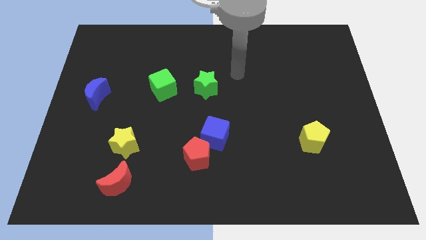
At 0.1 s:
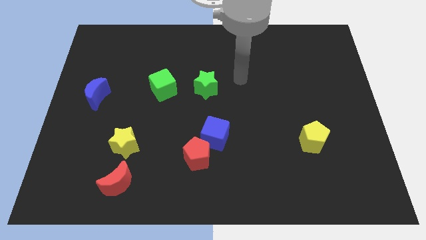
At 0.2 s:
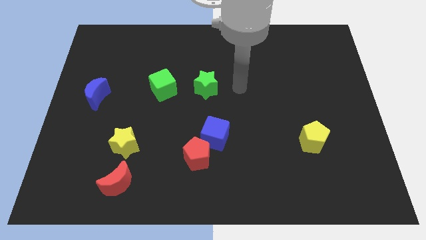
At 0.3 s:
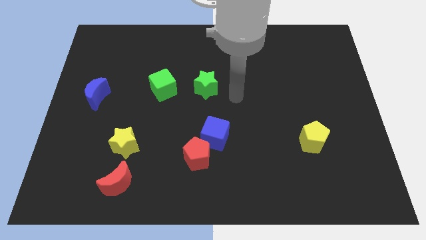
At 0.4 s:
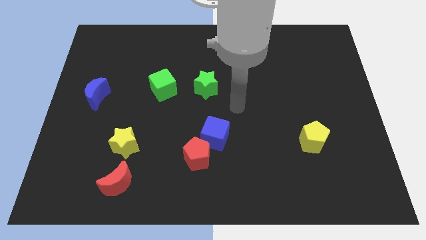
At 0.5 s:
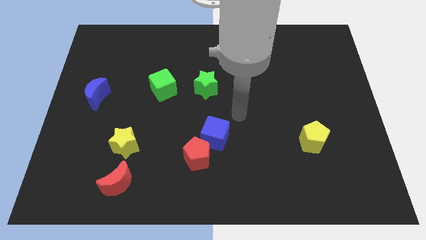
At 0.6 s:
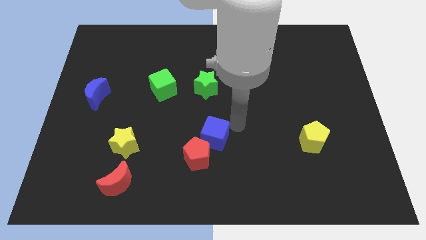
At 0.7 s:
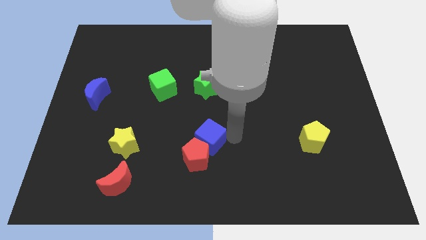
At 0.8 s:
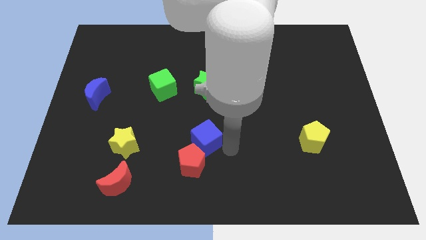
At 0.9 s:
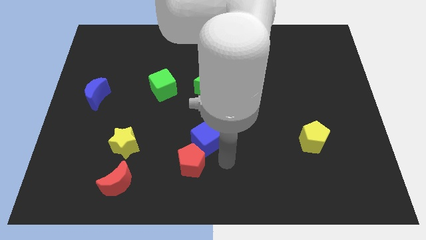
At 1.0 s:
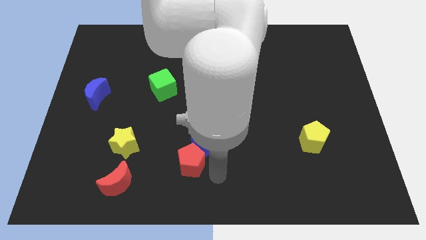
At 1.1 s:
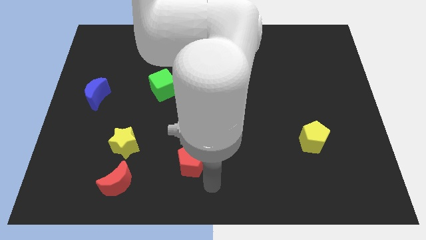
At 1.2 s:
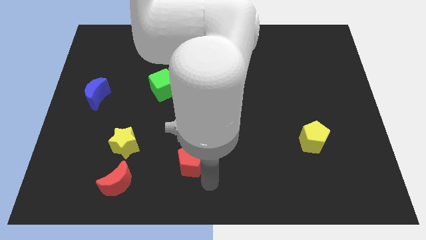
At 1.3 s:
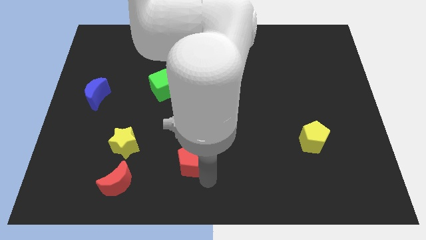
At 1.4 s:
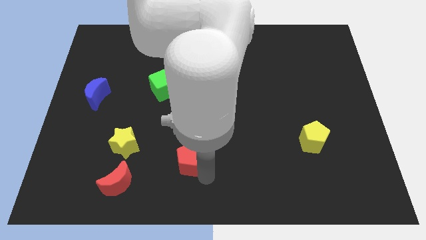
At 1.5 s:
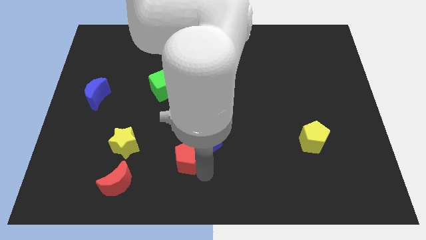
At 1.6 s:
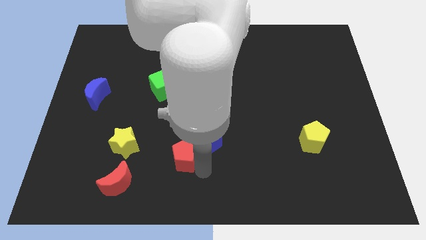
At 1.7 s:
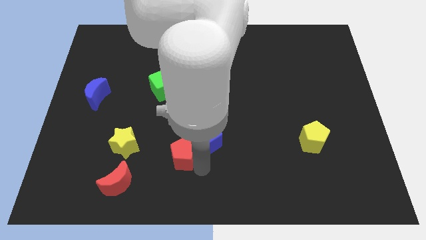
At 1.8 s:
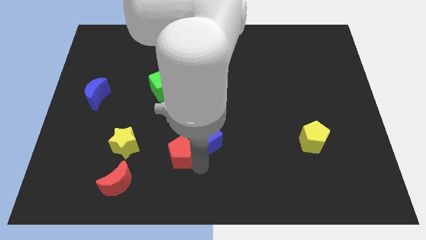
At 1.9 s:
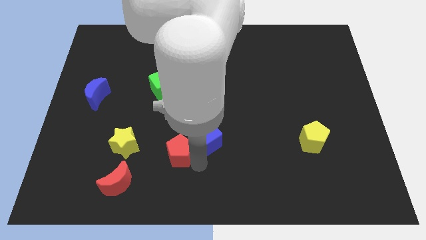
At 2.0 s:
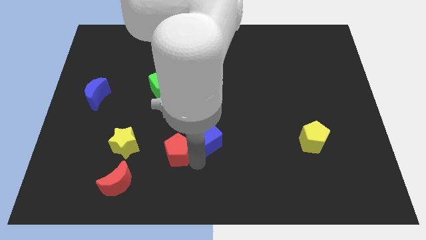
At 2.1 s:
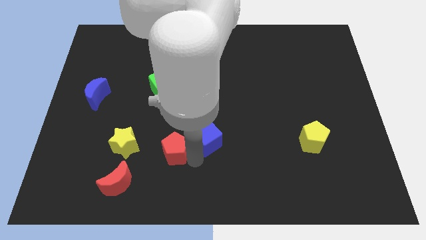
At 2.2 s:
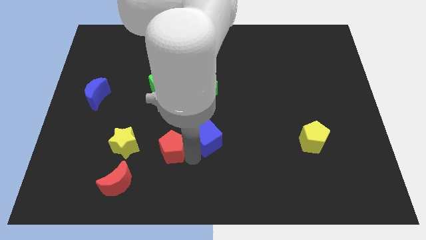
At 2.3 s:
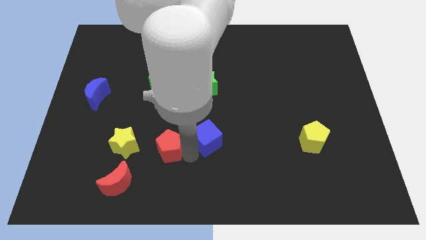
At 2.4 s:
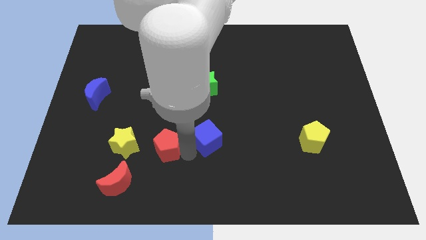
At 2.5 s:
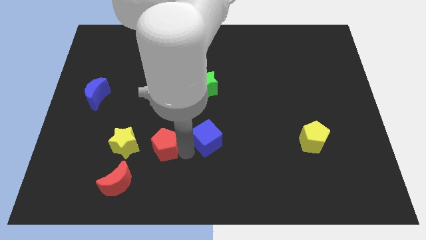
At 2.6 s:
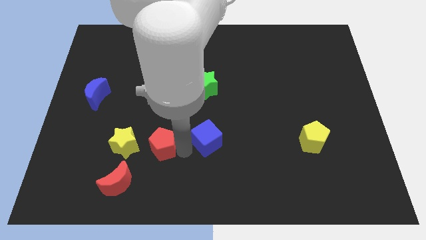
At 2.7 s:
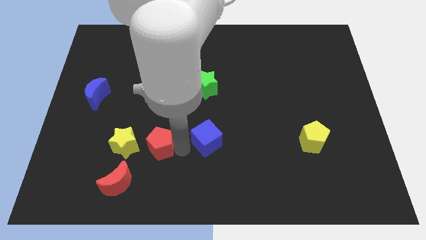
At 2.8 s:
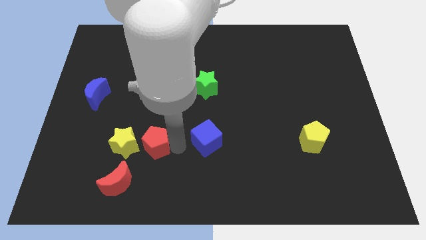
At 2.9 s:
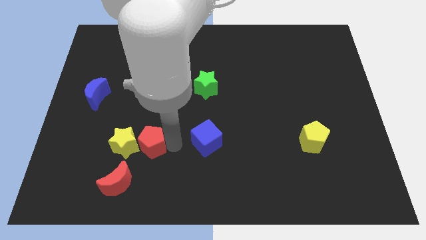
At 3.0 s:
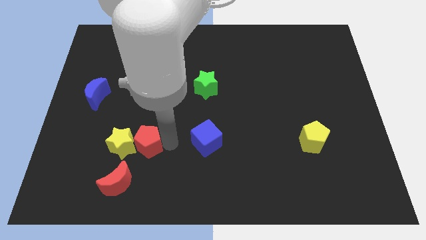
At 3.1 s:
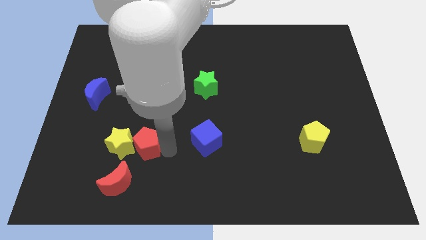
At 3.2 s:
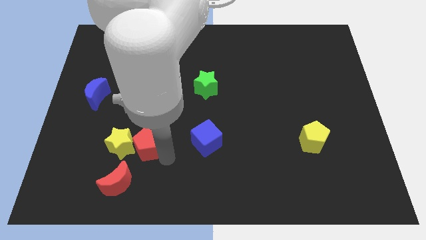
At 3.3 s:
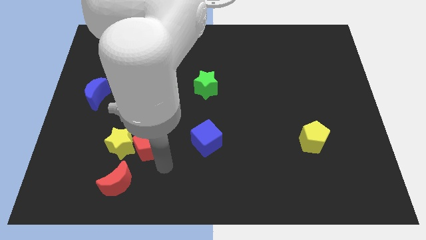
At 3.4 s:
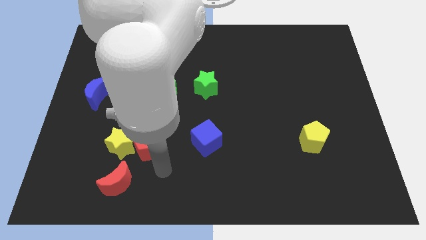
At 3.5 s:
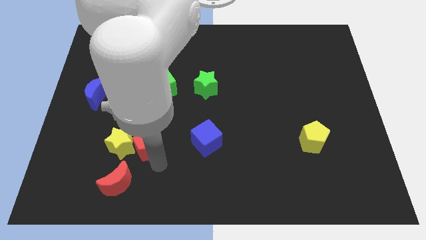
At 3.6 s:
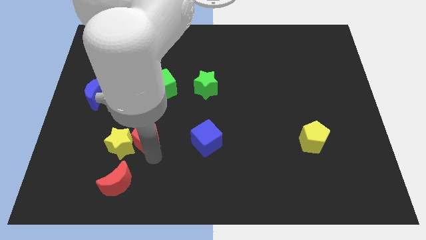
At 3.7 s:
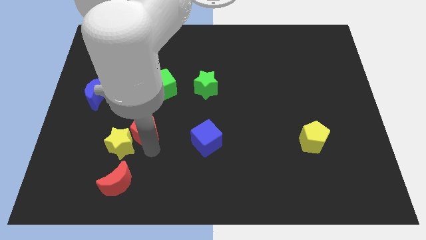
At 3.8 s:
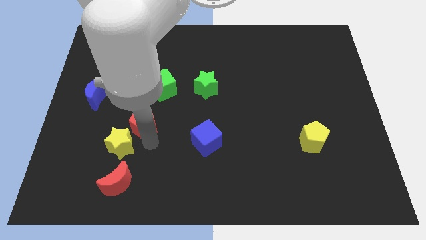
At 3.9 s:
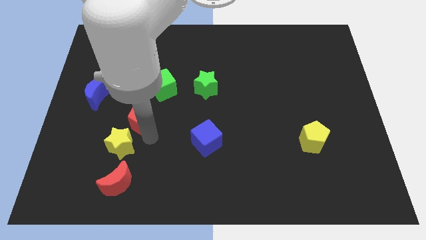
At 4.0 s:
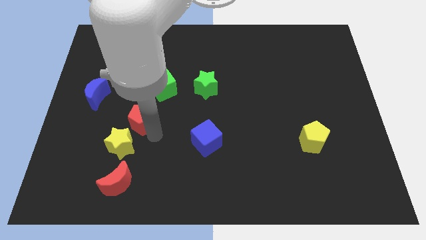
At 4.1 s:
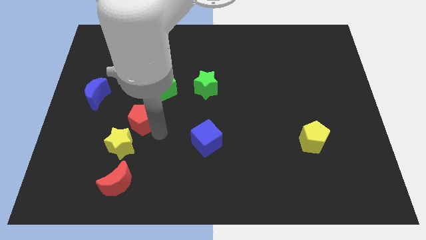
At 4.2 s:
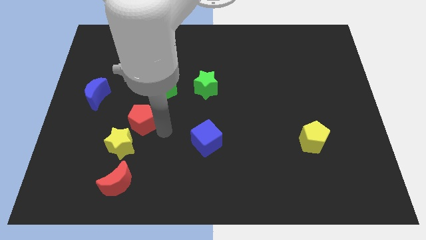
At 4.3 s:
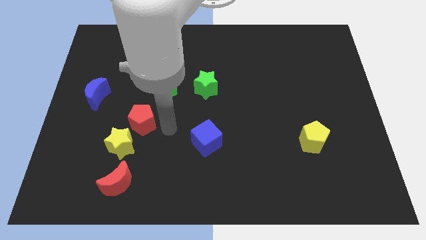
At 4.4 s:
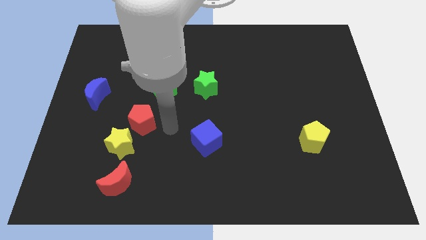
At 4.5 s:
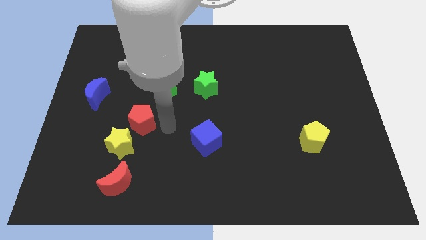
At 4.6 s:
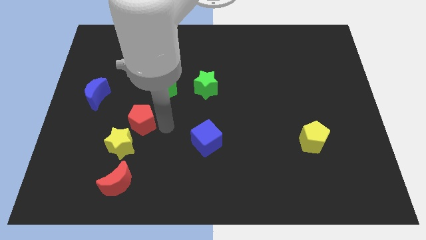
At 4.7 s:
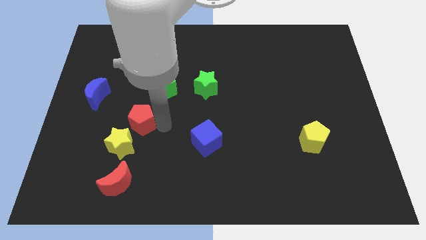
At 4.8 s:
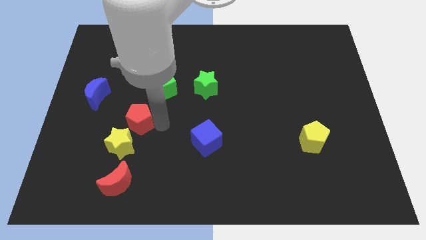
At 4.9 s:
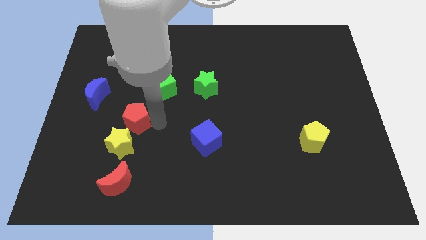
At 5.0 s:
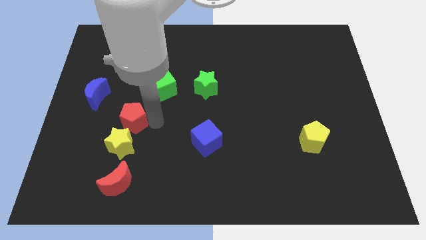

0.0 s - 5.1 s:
push the red pentagon to the bottom right side of the blue moon

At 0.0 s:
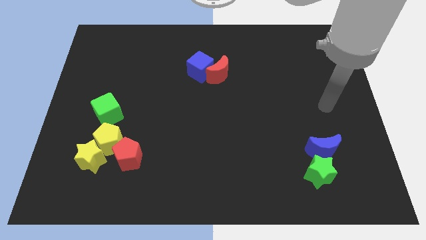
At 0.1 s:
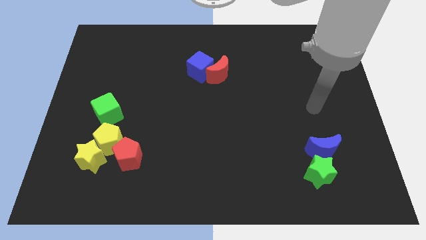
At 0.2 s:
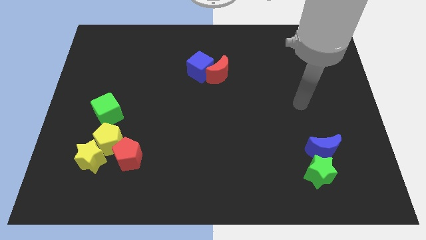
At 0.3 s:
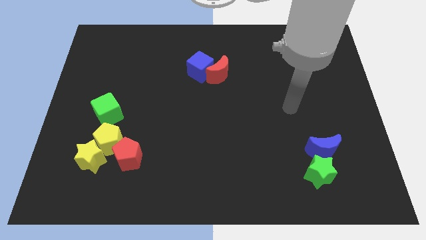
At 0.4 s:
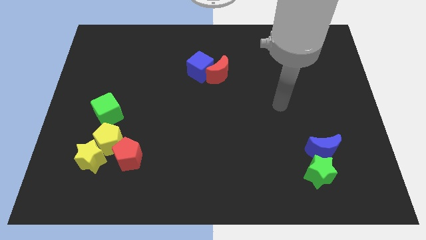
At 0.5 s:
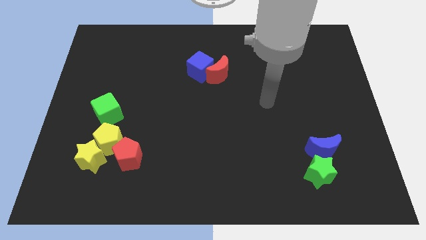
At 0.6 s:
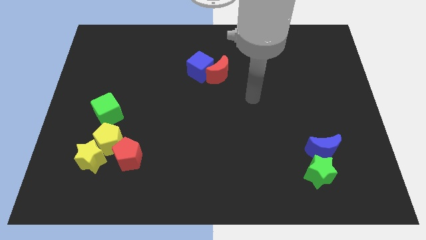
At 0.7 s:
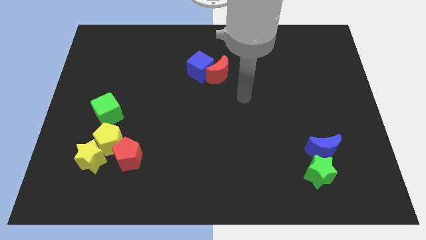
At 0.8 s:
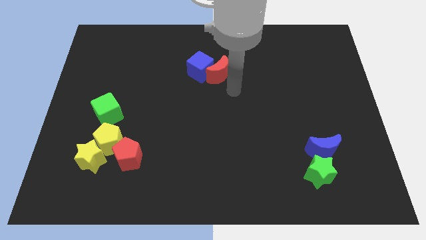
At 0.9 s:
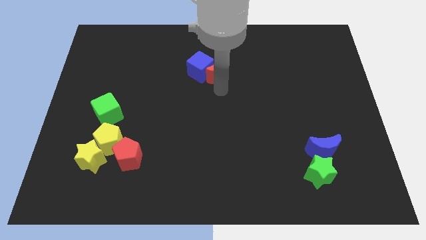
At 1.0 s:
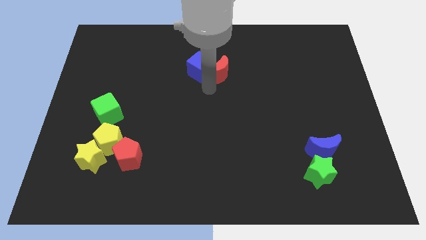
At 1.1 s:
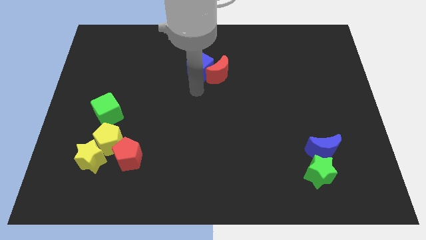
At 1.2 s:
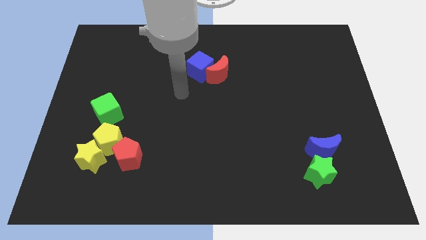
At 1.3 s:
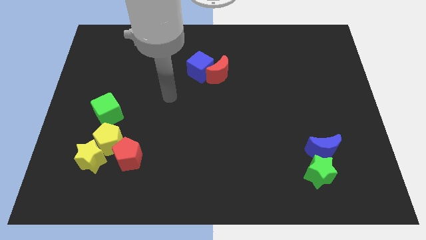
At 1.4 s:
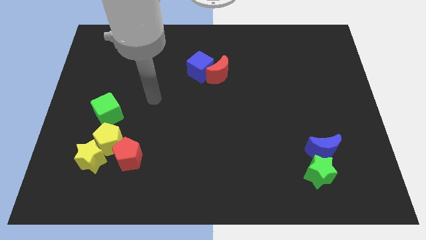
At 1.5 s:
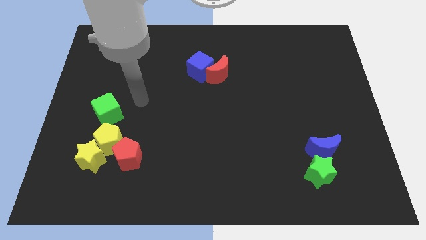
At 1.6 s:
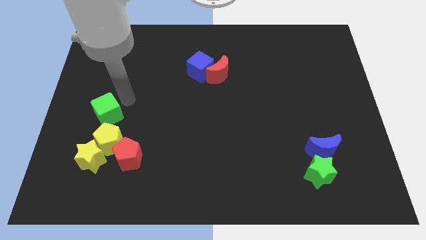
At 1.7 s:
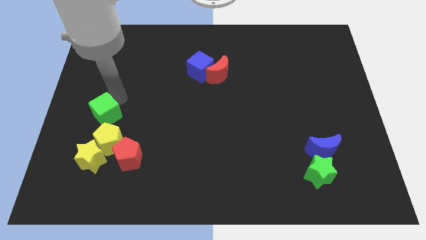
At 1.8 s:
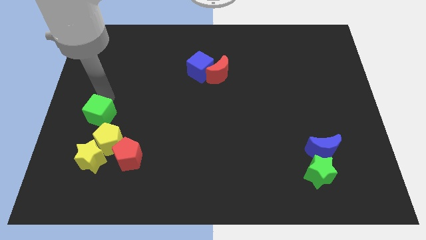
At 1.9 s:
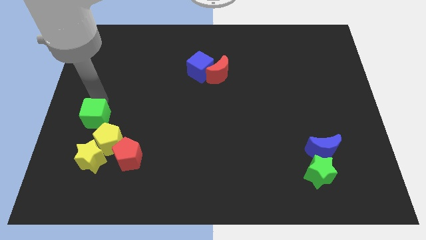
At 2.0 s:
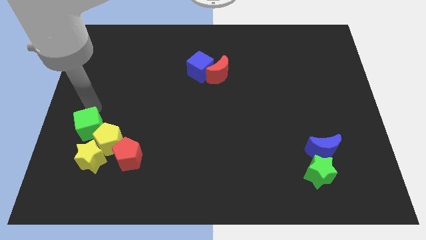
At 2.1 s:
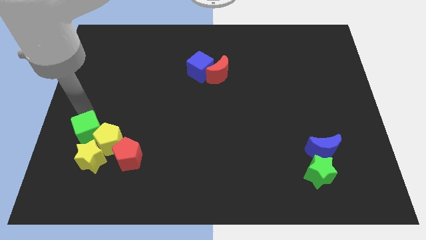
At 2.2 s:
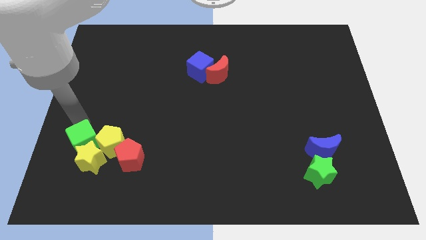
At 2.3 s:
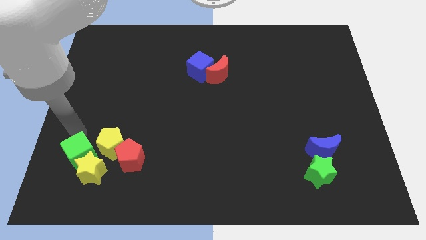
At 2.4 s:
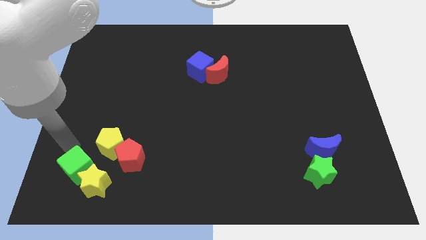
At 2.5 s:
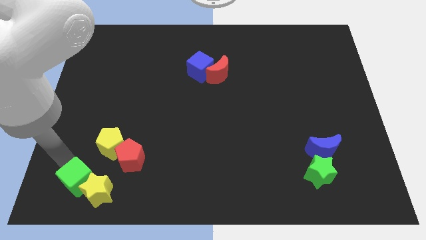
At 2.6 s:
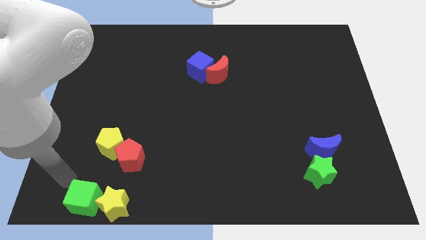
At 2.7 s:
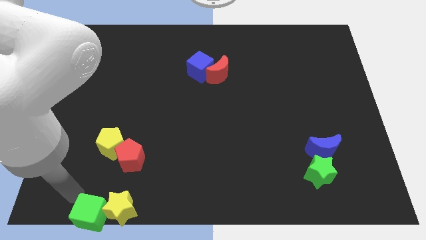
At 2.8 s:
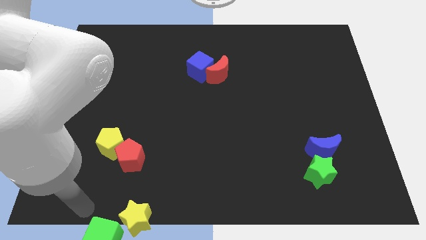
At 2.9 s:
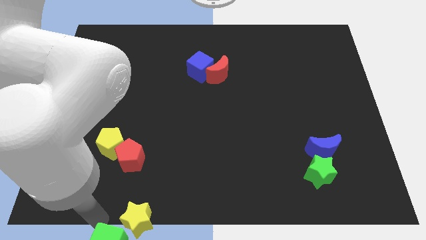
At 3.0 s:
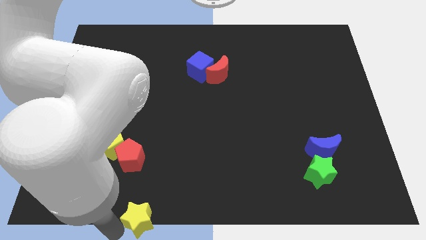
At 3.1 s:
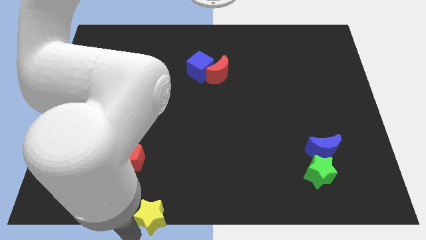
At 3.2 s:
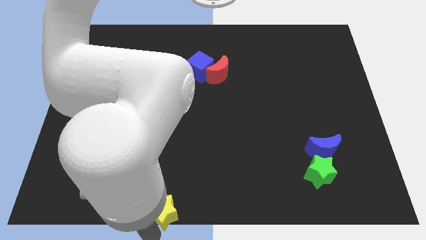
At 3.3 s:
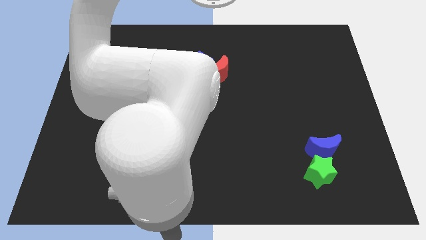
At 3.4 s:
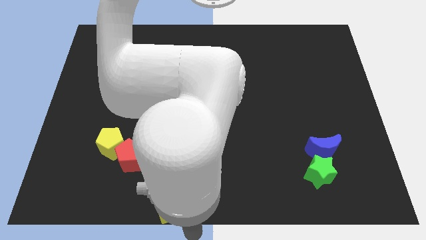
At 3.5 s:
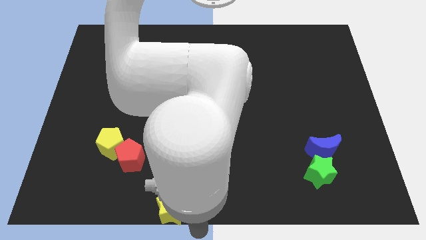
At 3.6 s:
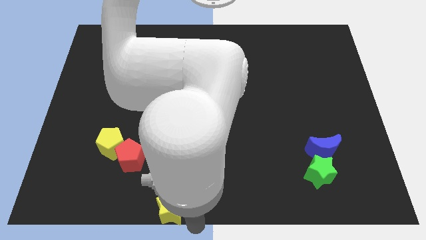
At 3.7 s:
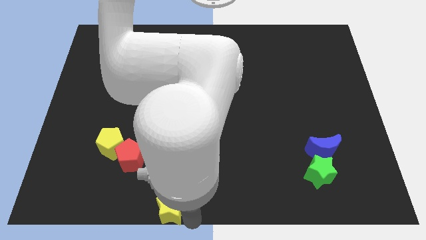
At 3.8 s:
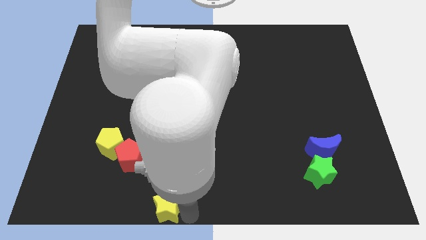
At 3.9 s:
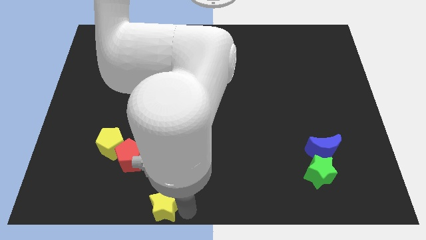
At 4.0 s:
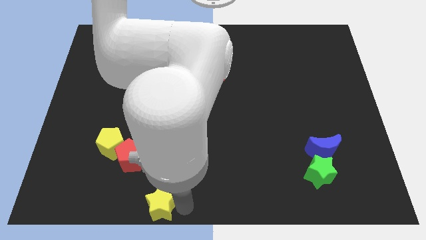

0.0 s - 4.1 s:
move the yellow star diagonally down and to the right of the red pentagon
